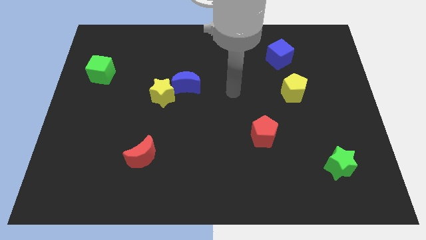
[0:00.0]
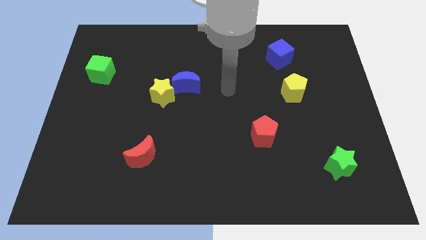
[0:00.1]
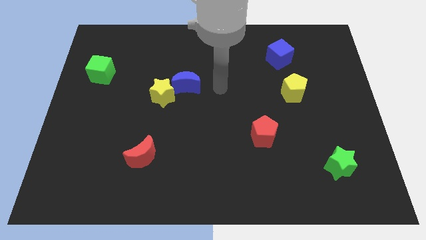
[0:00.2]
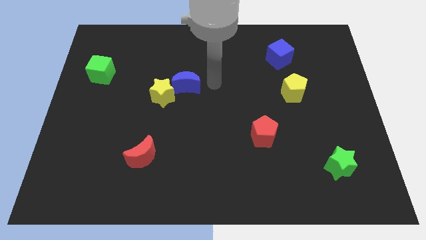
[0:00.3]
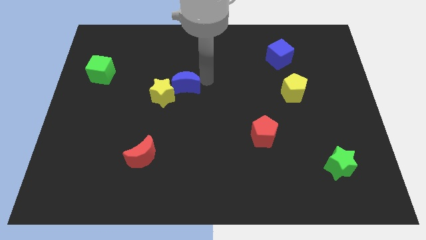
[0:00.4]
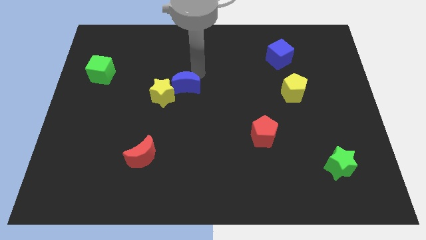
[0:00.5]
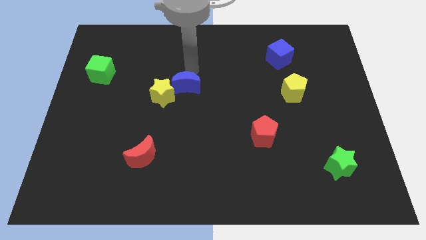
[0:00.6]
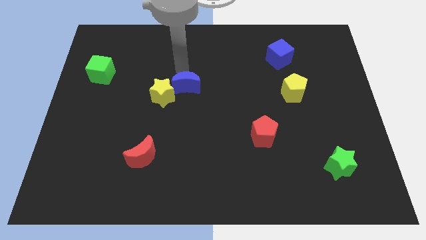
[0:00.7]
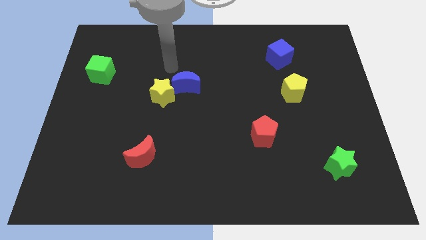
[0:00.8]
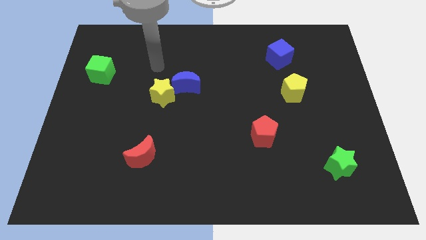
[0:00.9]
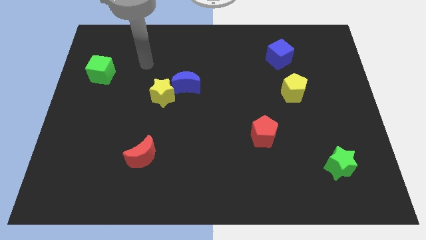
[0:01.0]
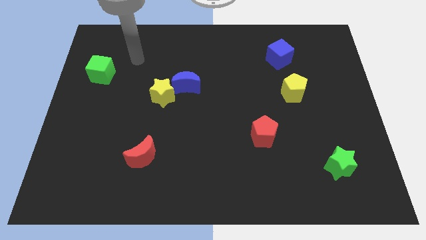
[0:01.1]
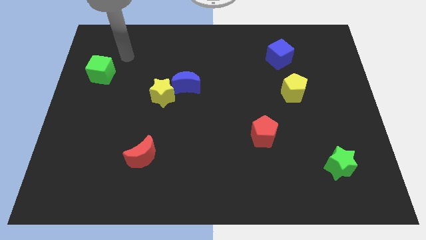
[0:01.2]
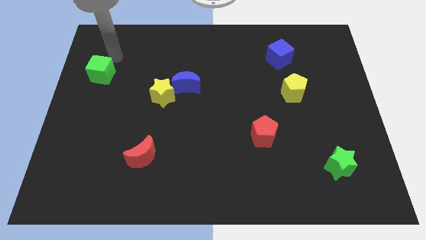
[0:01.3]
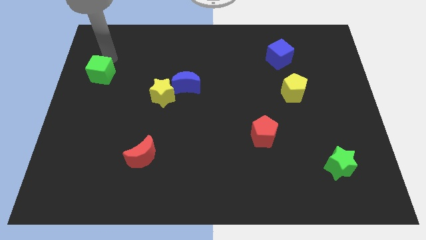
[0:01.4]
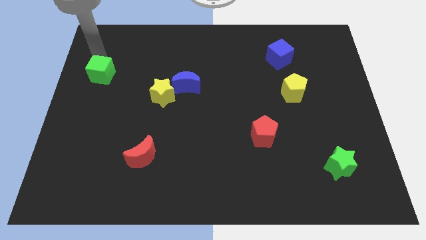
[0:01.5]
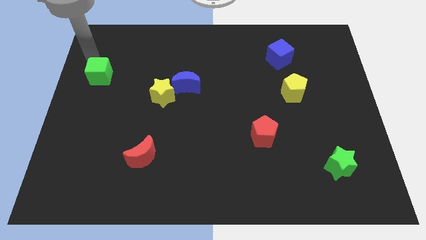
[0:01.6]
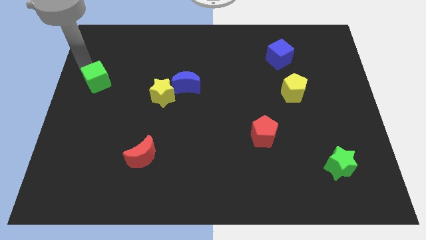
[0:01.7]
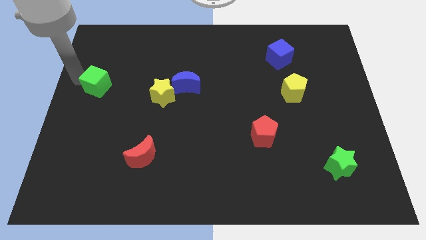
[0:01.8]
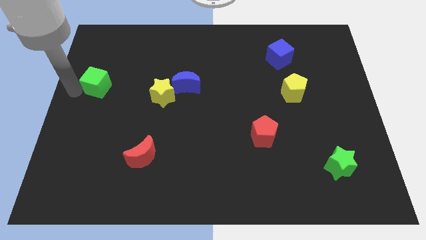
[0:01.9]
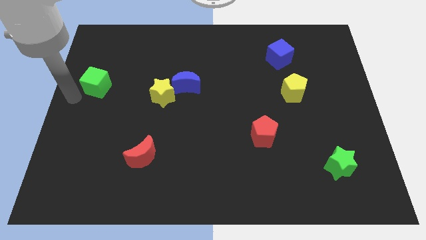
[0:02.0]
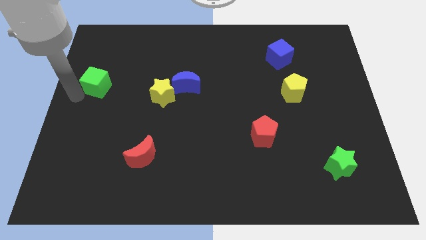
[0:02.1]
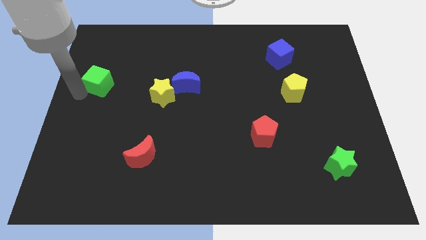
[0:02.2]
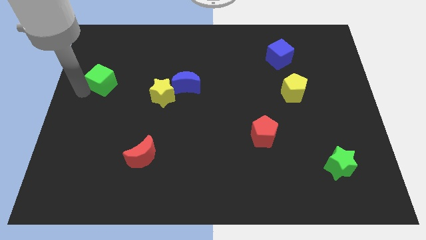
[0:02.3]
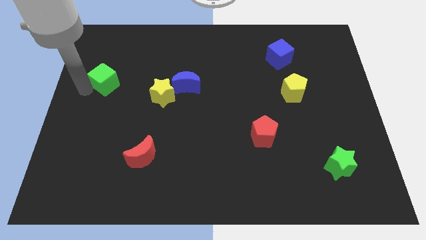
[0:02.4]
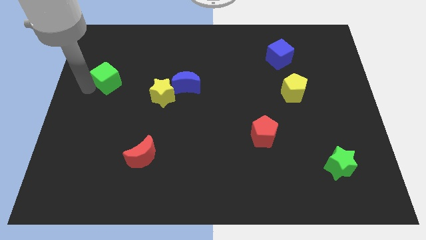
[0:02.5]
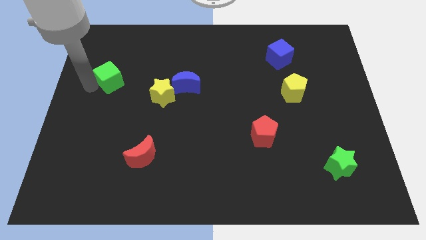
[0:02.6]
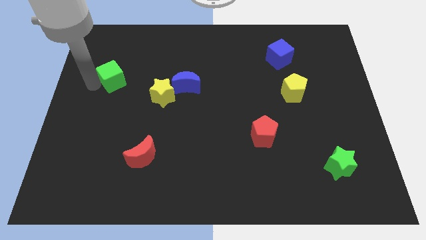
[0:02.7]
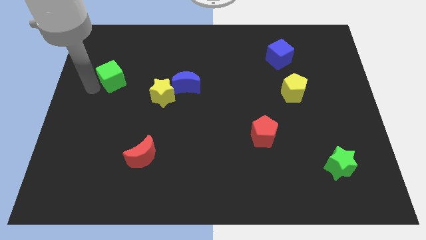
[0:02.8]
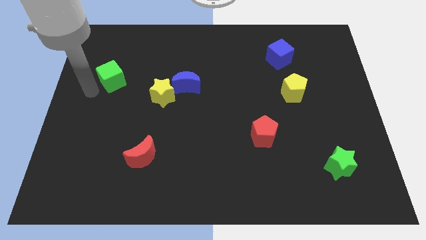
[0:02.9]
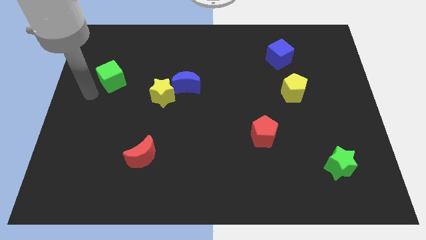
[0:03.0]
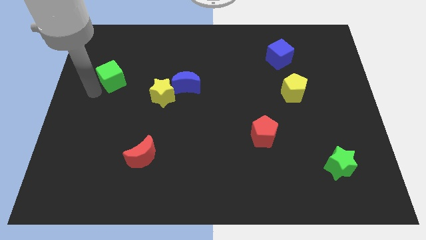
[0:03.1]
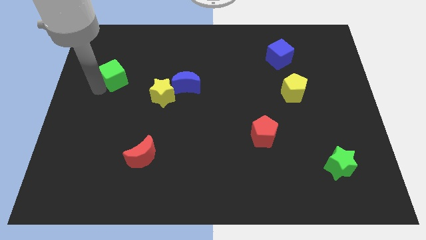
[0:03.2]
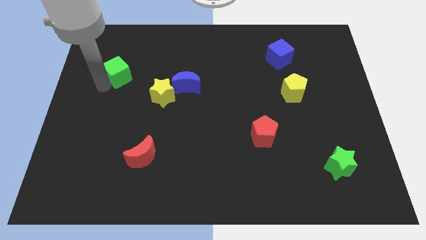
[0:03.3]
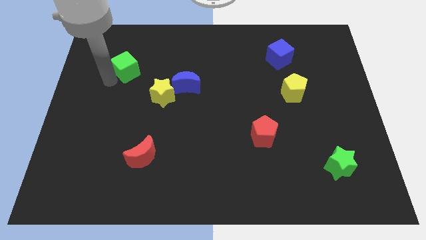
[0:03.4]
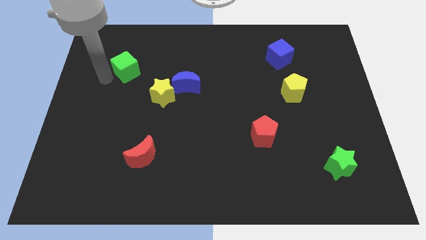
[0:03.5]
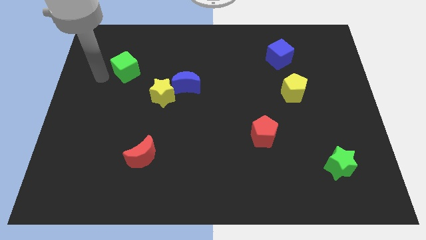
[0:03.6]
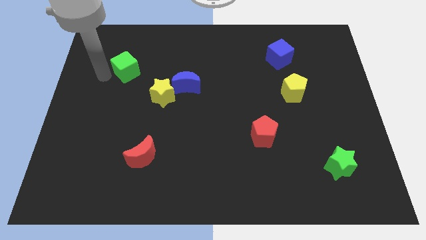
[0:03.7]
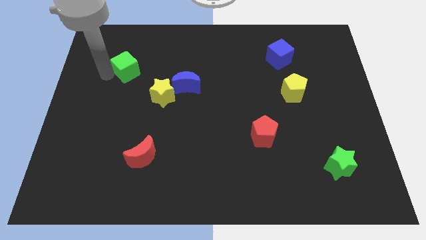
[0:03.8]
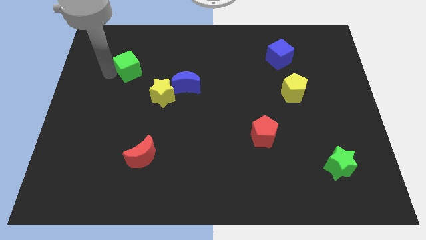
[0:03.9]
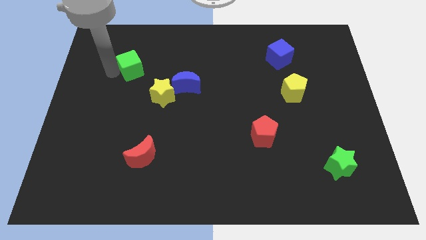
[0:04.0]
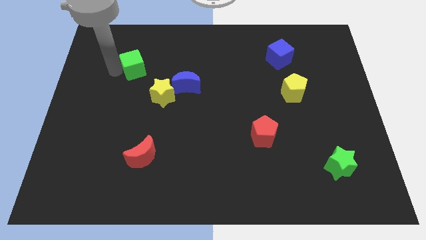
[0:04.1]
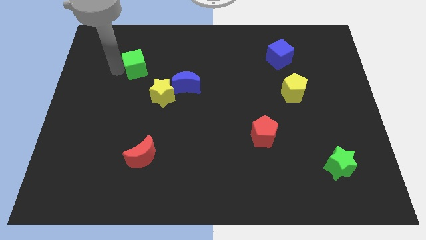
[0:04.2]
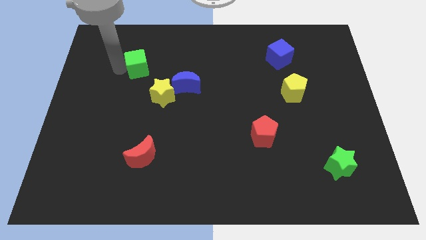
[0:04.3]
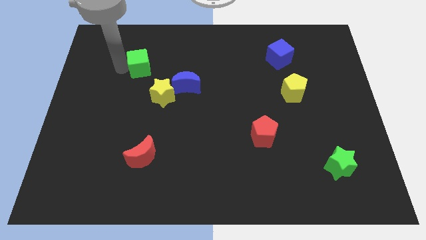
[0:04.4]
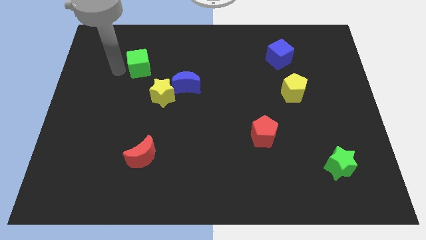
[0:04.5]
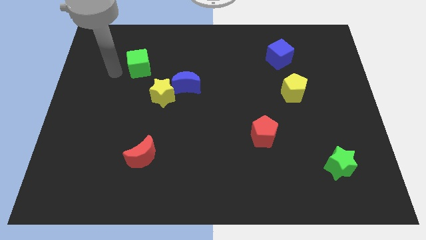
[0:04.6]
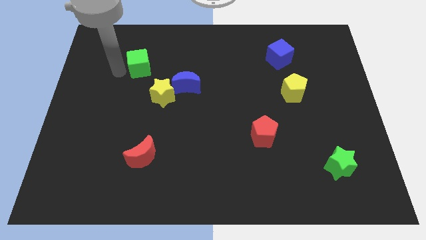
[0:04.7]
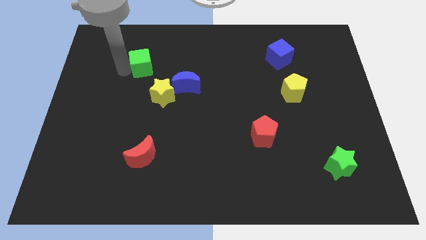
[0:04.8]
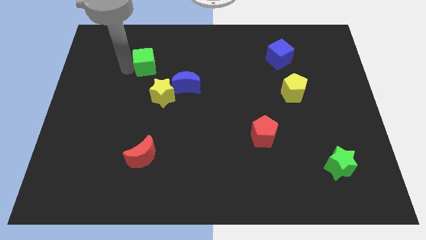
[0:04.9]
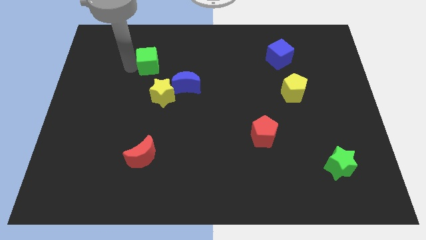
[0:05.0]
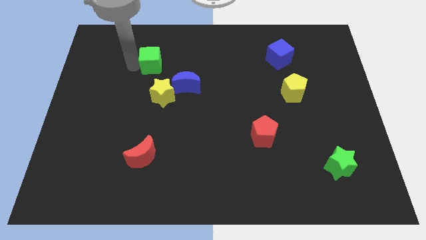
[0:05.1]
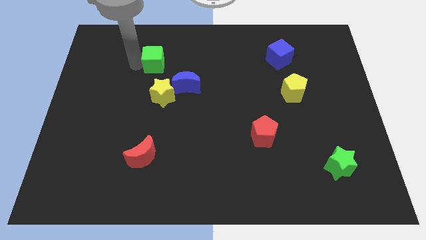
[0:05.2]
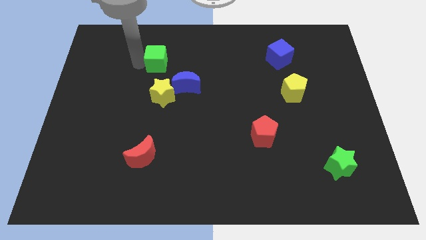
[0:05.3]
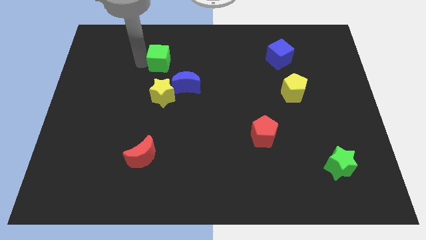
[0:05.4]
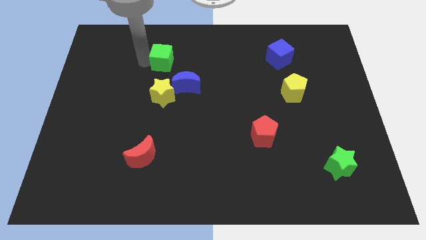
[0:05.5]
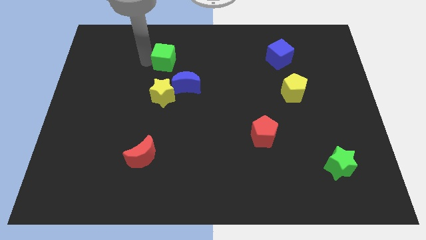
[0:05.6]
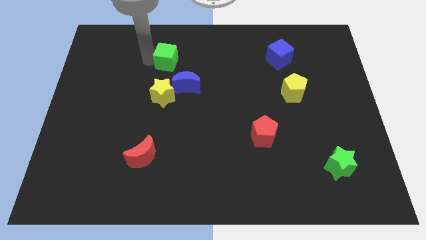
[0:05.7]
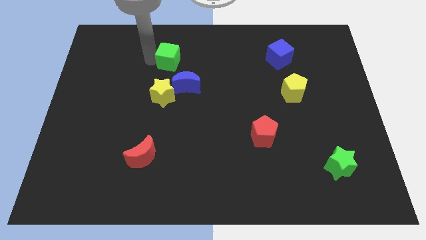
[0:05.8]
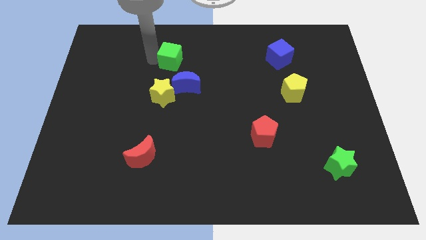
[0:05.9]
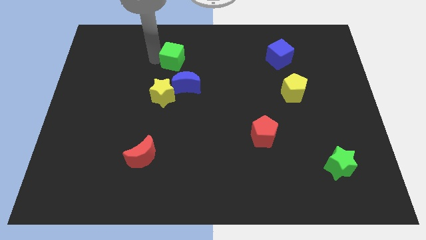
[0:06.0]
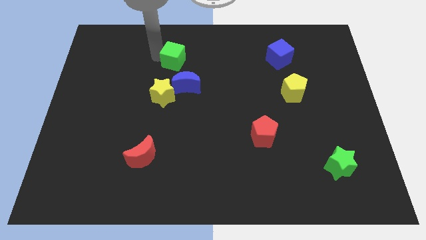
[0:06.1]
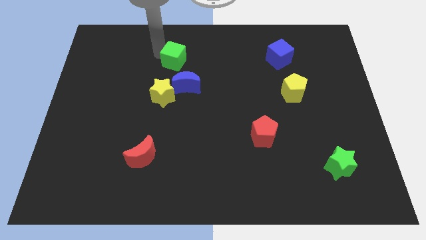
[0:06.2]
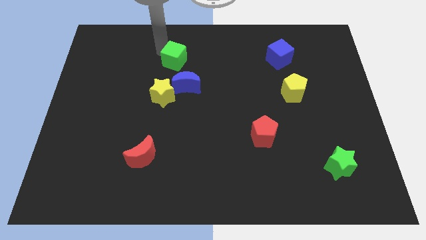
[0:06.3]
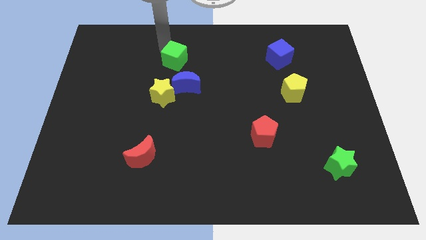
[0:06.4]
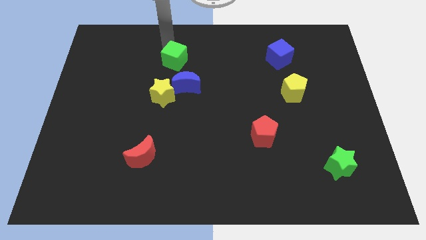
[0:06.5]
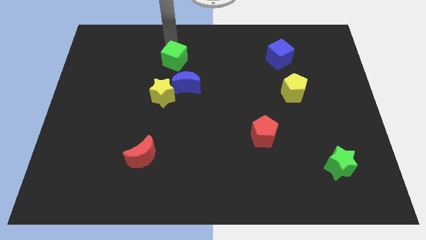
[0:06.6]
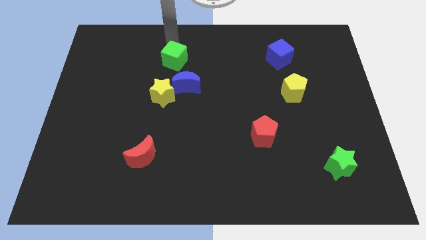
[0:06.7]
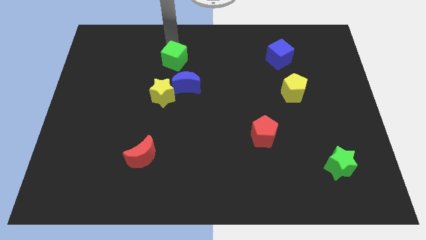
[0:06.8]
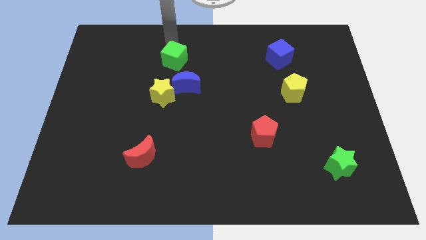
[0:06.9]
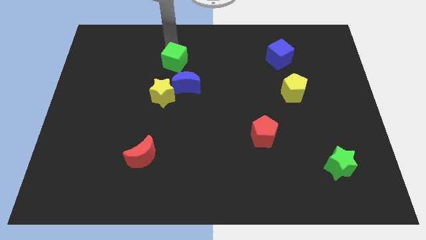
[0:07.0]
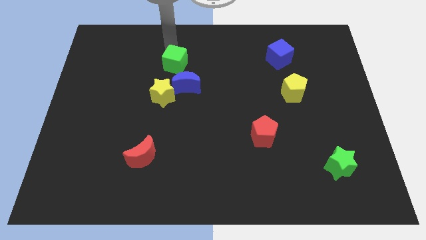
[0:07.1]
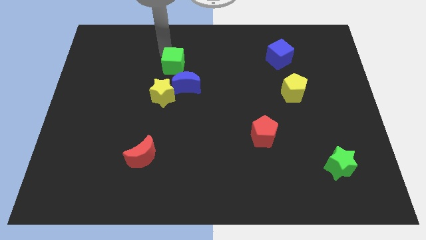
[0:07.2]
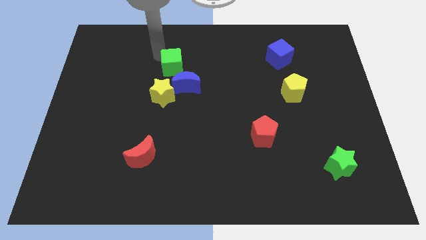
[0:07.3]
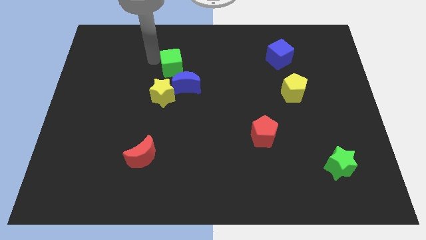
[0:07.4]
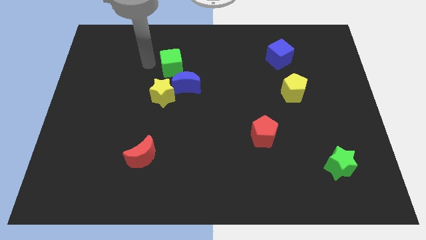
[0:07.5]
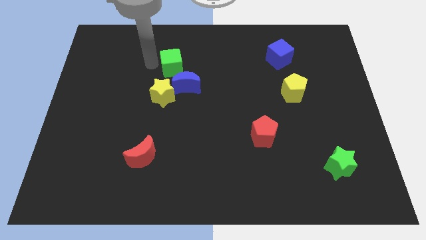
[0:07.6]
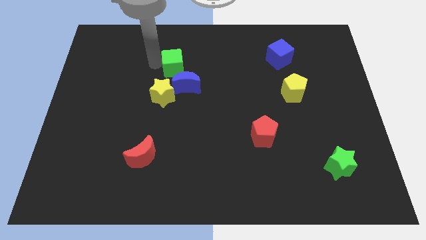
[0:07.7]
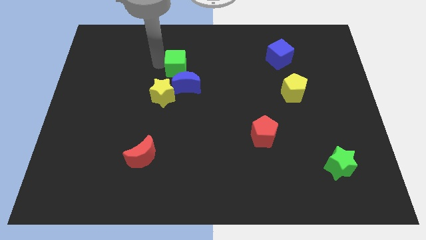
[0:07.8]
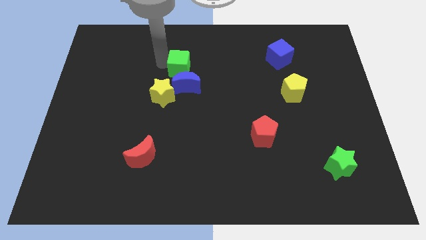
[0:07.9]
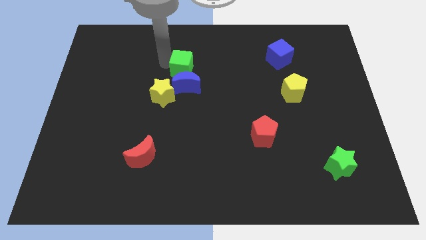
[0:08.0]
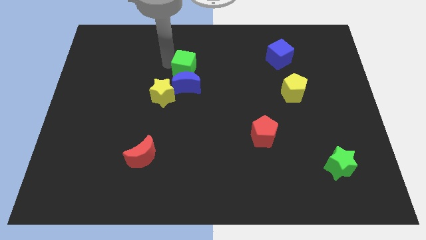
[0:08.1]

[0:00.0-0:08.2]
slide the green cube to the top right side of the blue moon

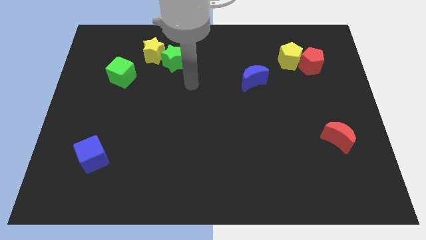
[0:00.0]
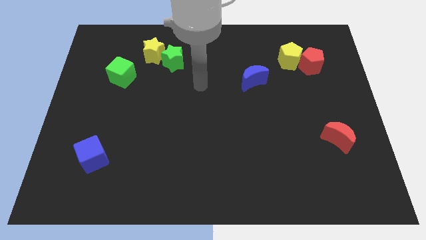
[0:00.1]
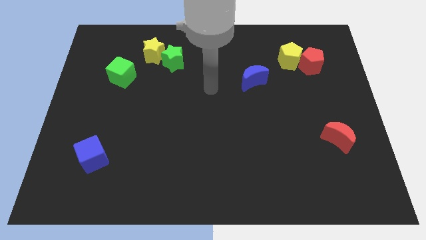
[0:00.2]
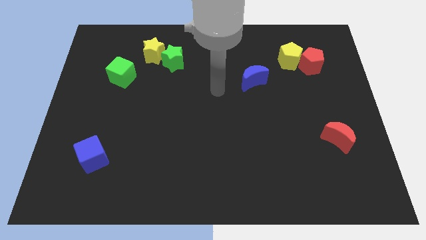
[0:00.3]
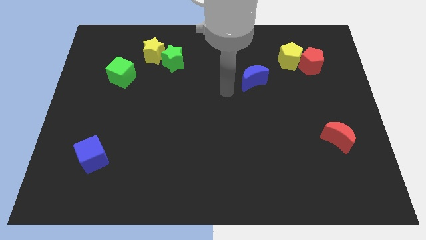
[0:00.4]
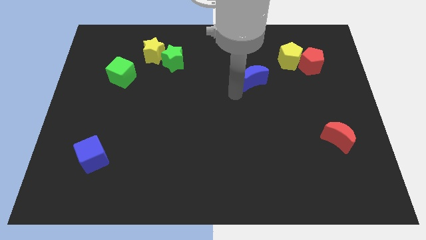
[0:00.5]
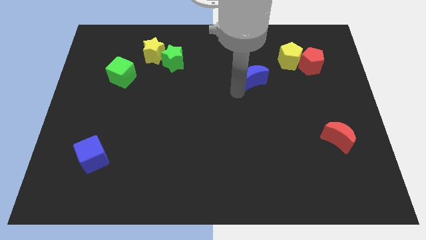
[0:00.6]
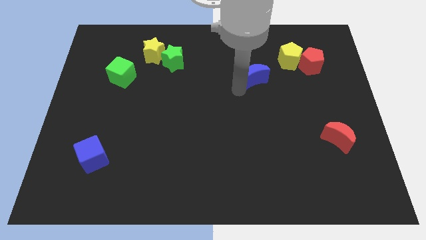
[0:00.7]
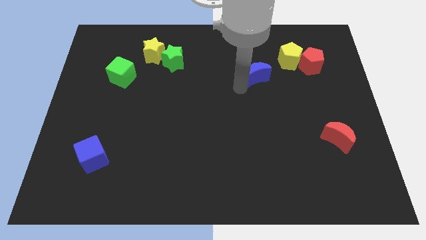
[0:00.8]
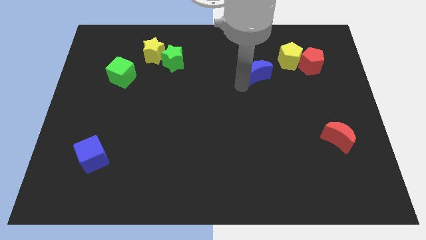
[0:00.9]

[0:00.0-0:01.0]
push the blue moon just left of the red pentagon
